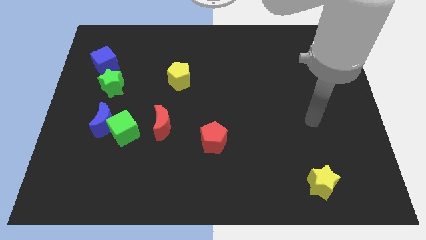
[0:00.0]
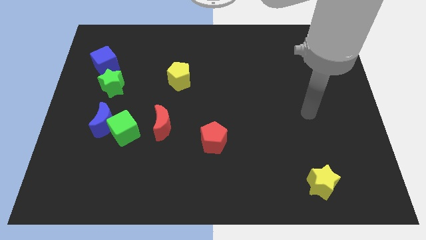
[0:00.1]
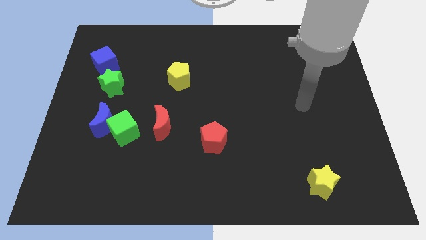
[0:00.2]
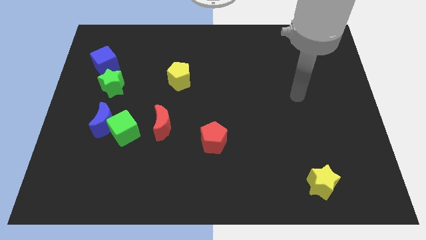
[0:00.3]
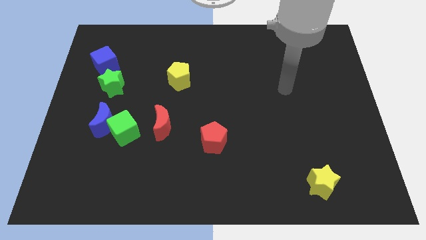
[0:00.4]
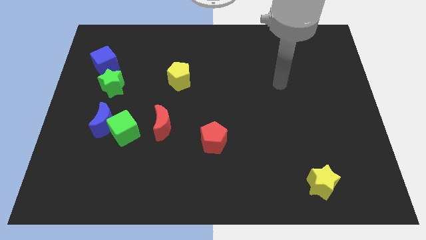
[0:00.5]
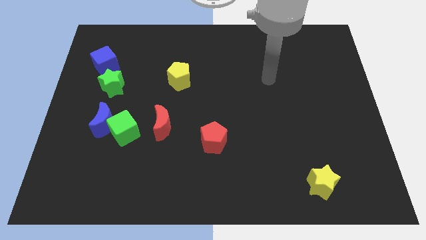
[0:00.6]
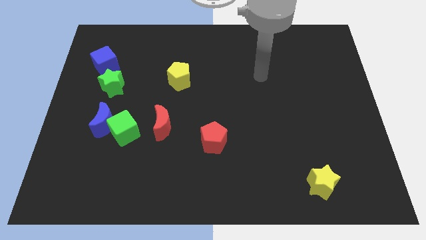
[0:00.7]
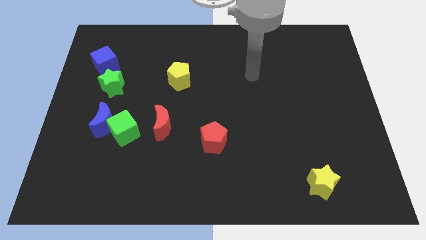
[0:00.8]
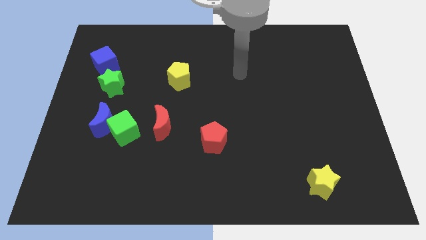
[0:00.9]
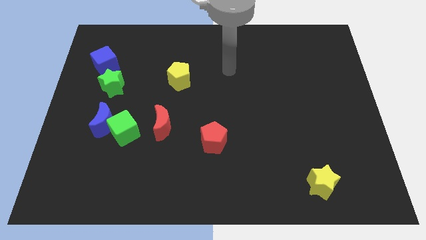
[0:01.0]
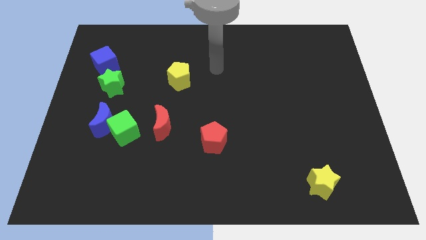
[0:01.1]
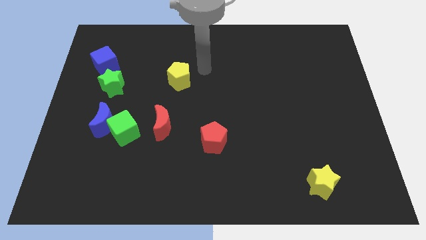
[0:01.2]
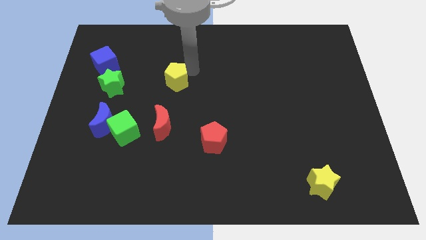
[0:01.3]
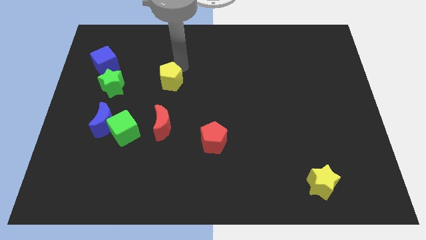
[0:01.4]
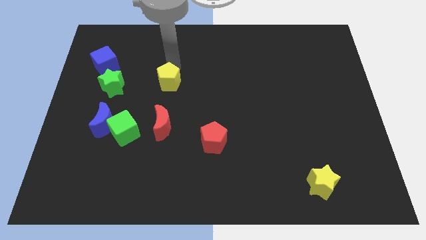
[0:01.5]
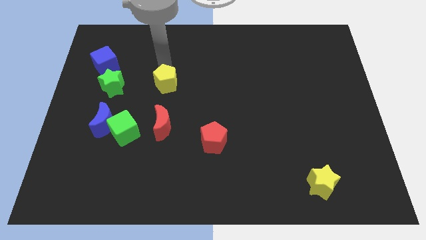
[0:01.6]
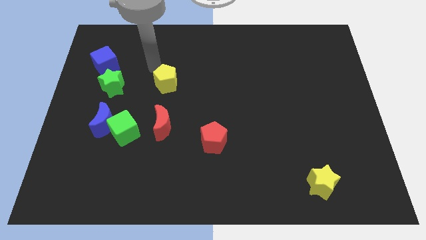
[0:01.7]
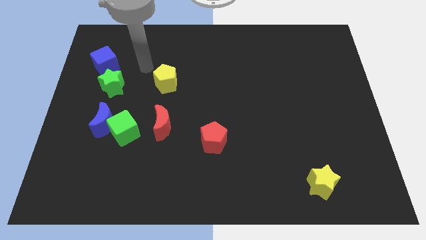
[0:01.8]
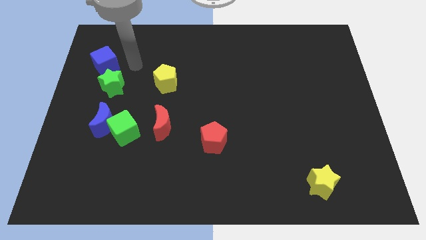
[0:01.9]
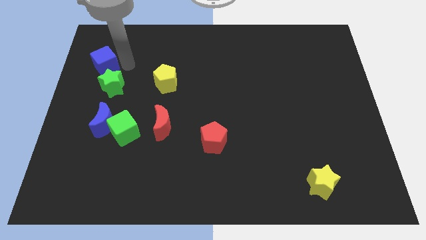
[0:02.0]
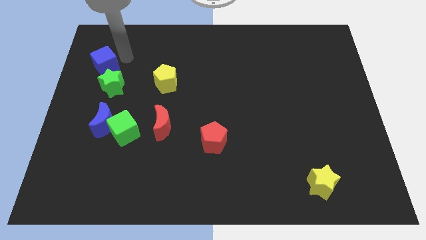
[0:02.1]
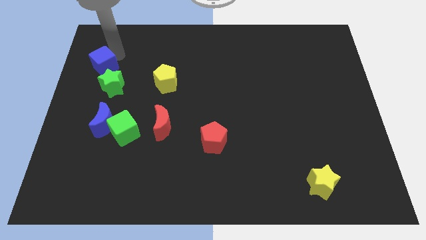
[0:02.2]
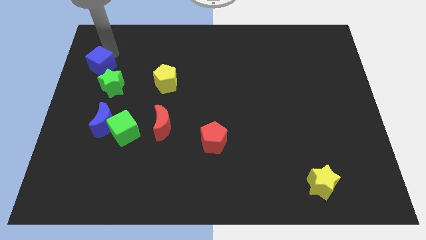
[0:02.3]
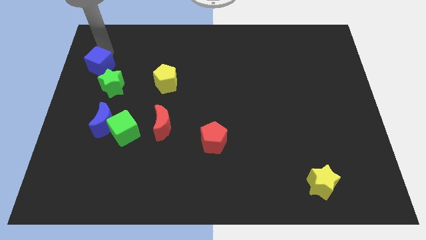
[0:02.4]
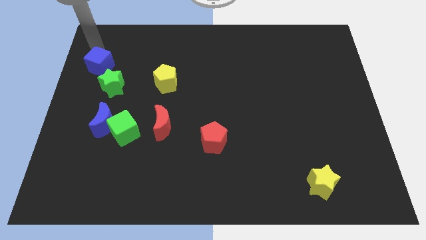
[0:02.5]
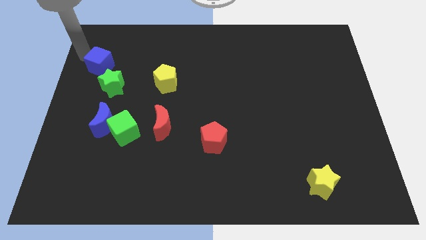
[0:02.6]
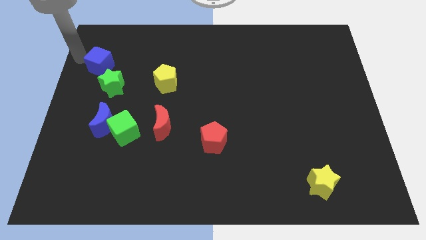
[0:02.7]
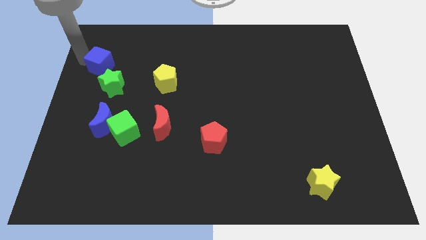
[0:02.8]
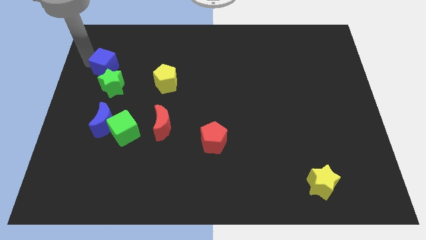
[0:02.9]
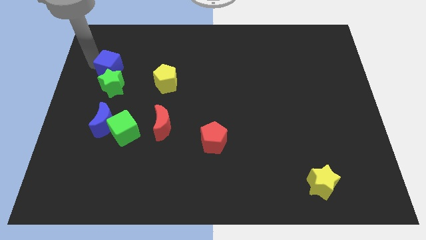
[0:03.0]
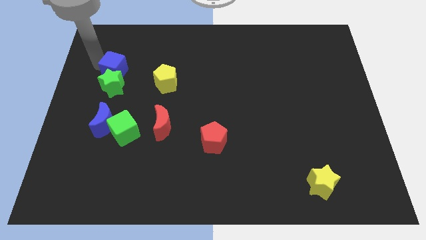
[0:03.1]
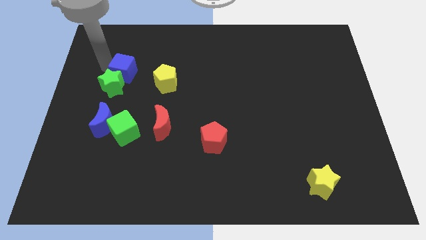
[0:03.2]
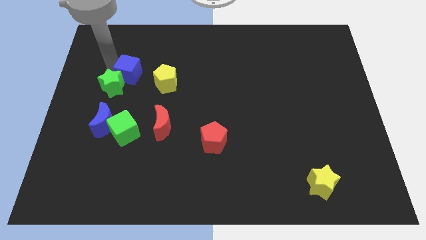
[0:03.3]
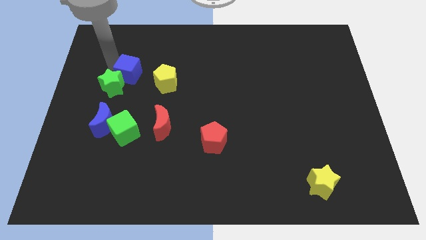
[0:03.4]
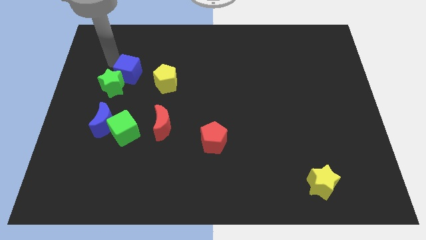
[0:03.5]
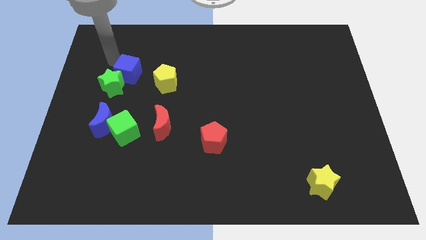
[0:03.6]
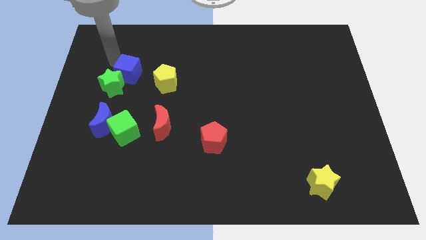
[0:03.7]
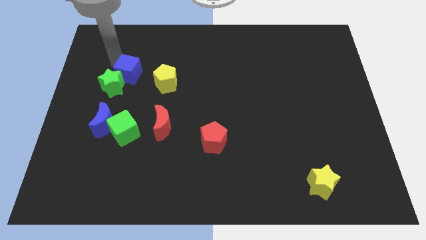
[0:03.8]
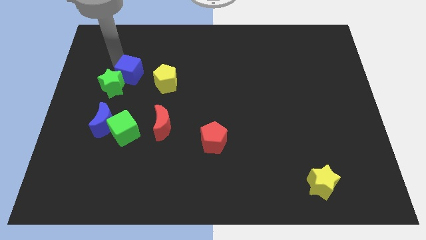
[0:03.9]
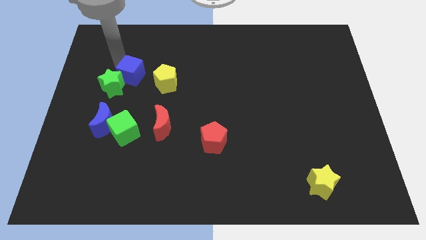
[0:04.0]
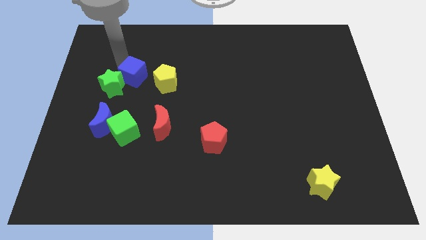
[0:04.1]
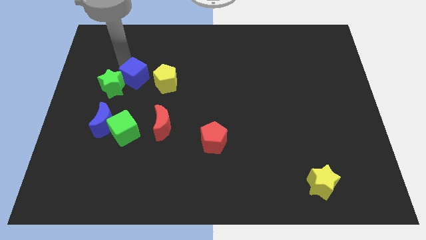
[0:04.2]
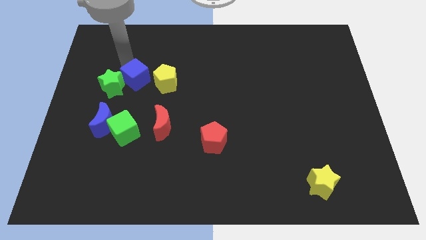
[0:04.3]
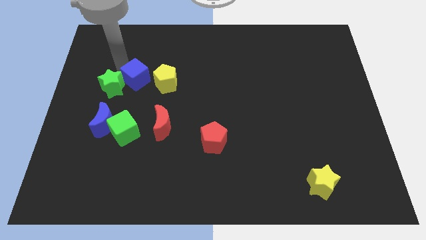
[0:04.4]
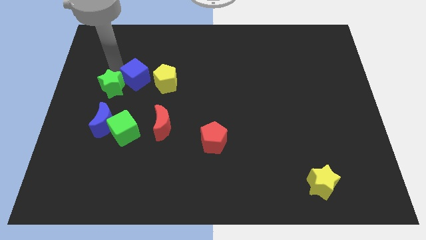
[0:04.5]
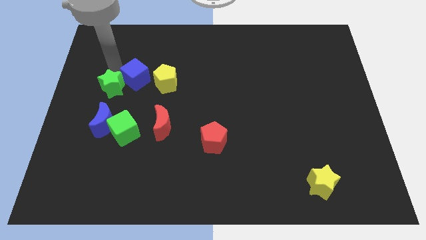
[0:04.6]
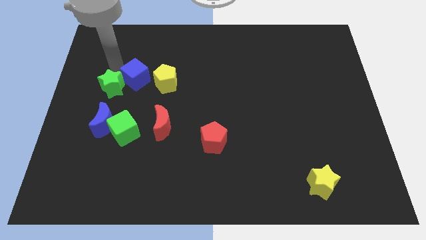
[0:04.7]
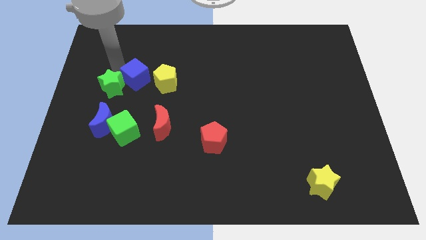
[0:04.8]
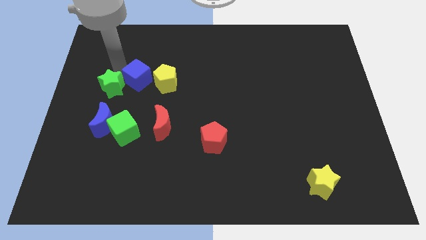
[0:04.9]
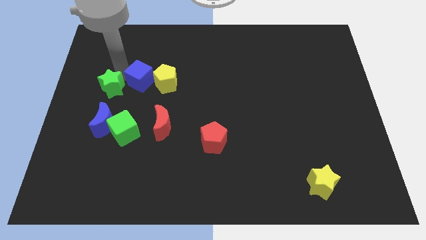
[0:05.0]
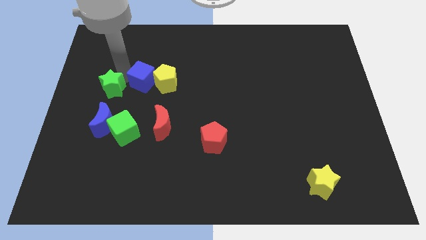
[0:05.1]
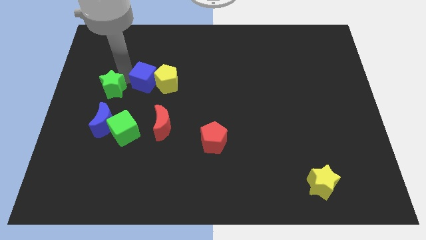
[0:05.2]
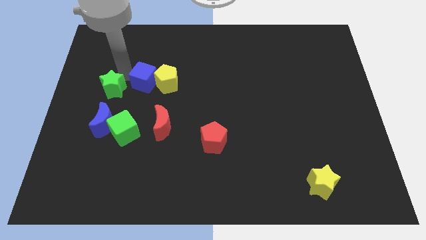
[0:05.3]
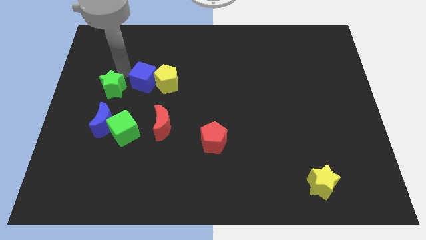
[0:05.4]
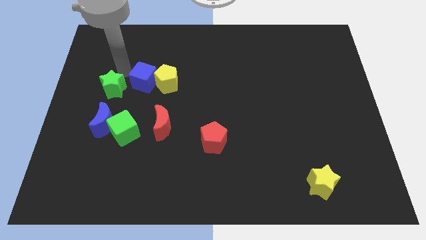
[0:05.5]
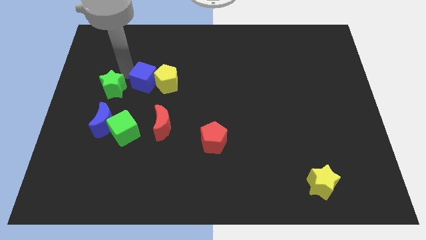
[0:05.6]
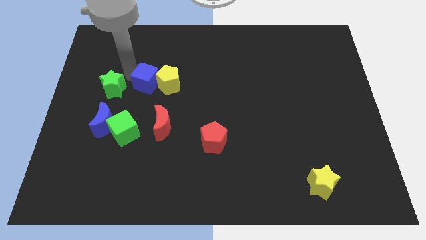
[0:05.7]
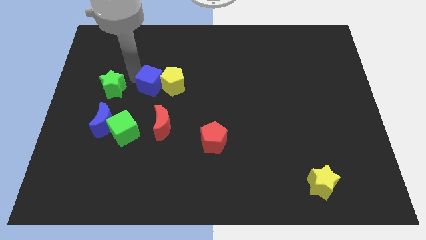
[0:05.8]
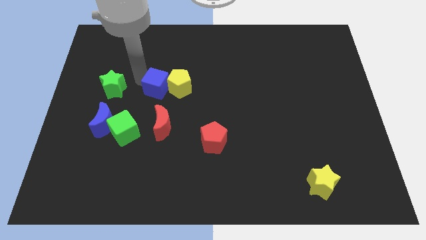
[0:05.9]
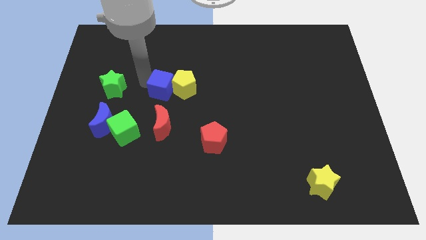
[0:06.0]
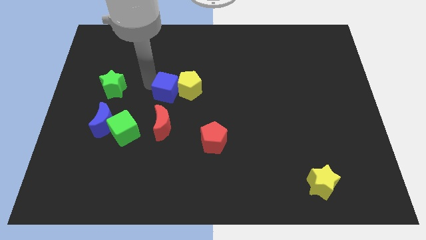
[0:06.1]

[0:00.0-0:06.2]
slide the blue cube to the center of the board

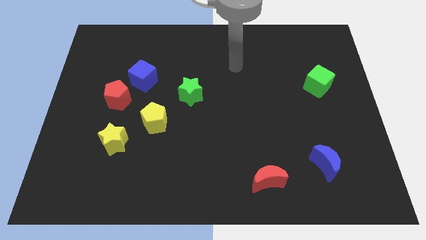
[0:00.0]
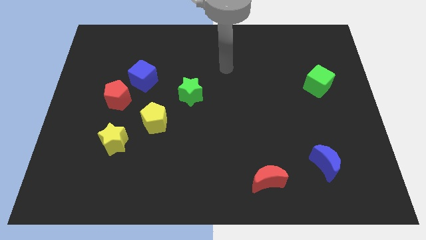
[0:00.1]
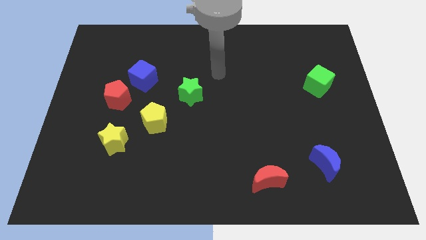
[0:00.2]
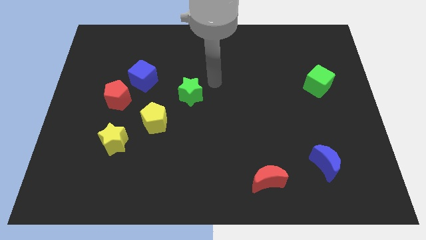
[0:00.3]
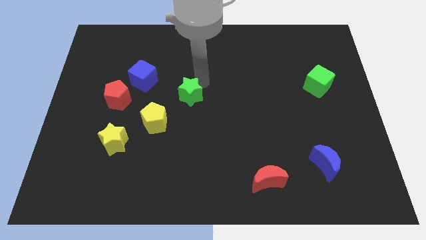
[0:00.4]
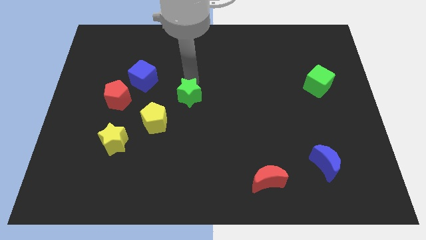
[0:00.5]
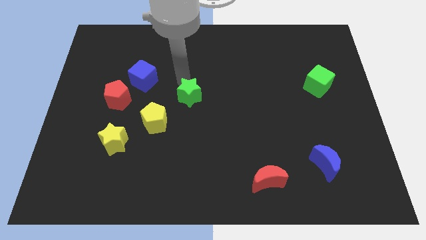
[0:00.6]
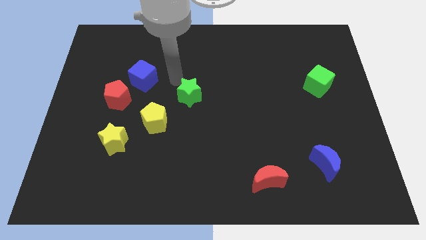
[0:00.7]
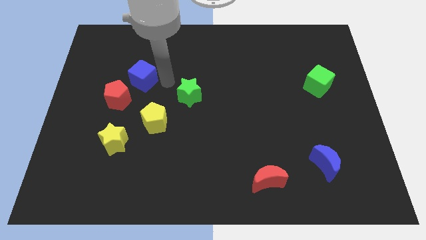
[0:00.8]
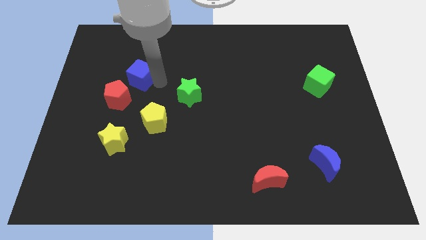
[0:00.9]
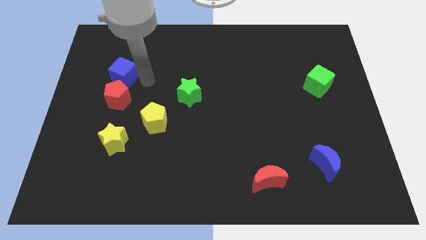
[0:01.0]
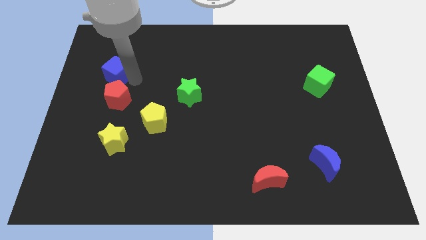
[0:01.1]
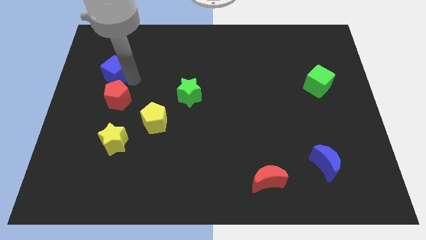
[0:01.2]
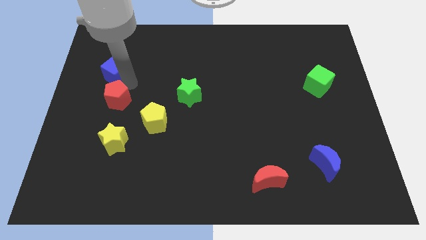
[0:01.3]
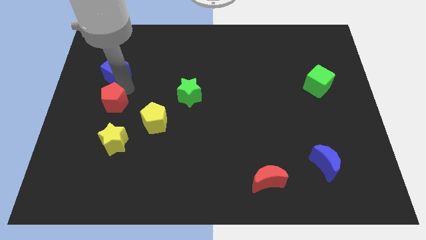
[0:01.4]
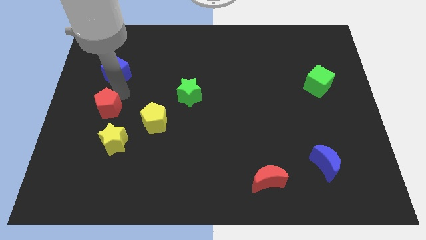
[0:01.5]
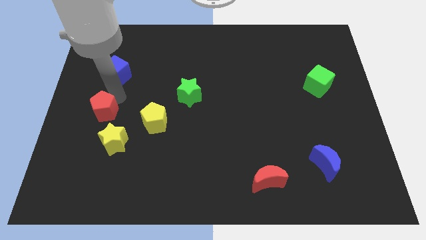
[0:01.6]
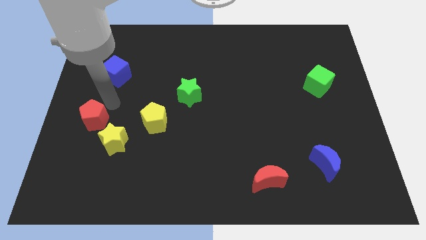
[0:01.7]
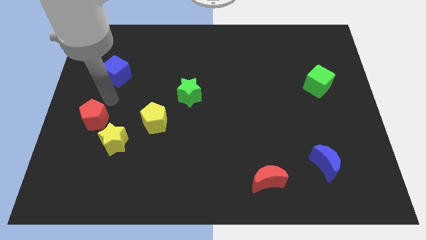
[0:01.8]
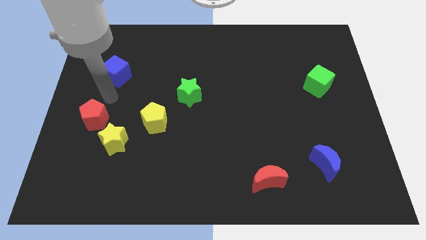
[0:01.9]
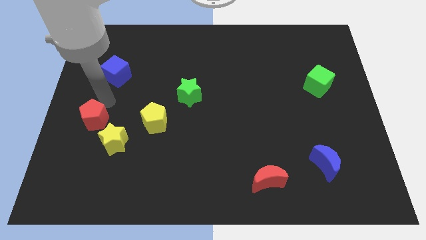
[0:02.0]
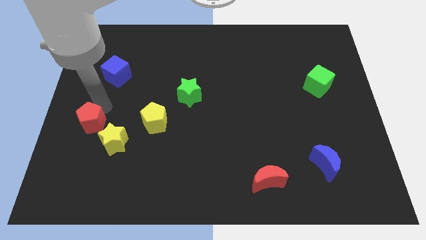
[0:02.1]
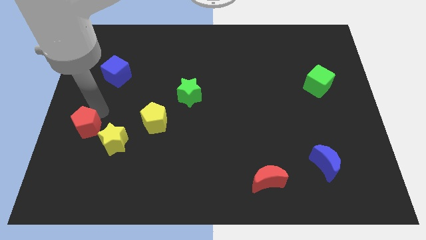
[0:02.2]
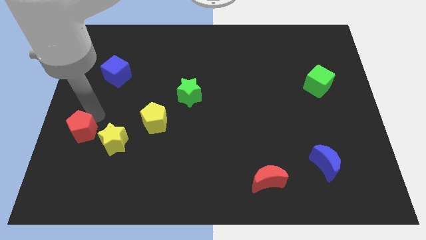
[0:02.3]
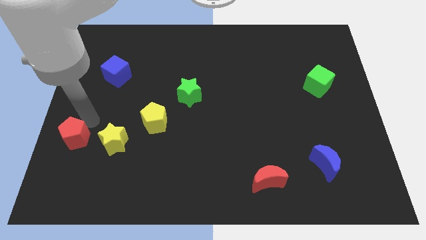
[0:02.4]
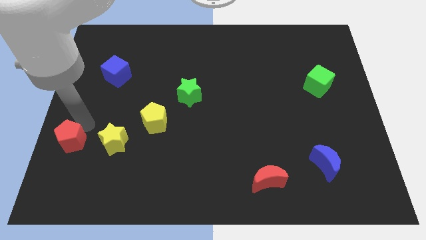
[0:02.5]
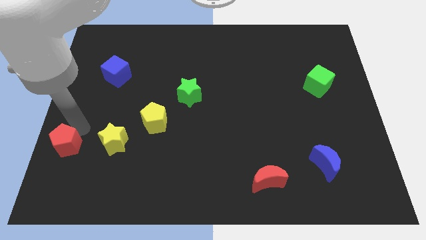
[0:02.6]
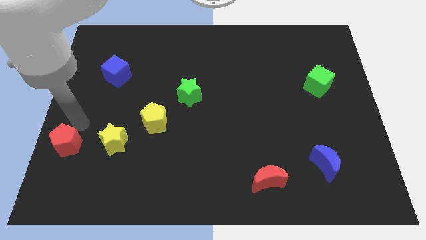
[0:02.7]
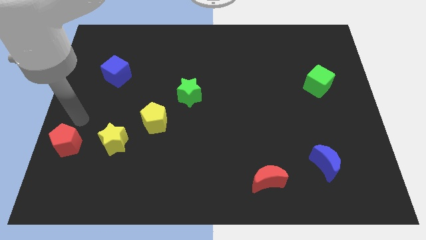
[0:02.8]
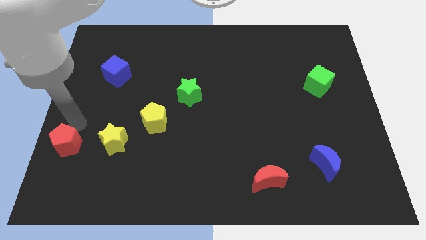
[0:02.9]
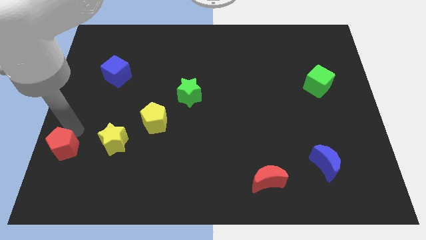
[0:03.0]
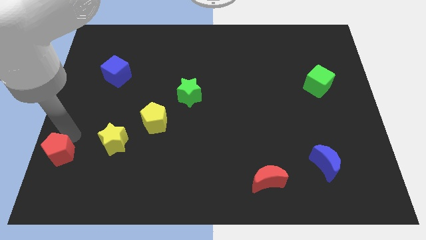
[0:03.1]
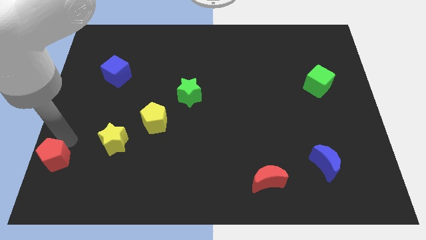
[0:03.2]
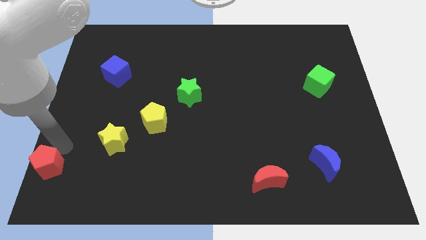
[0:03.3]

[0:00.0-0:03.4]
slide the red pentagon to the bottom left corner
